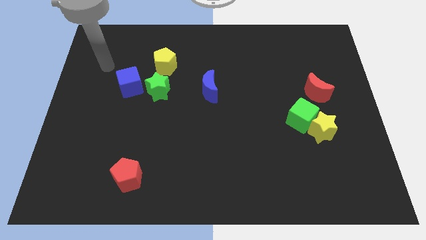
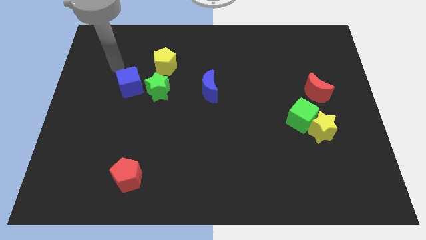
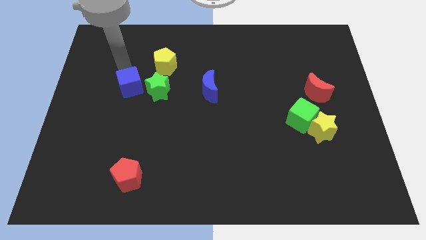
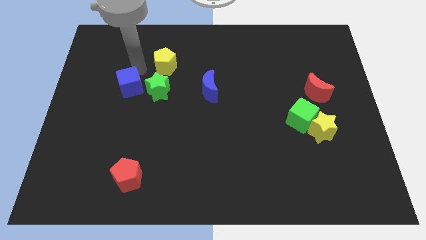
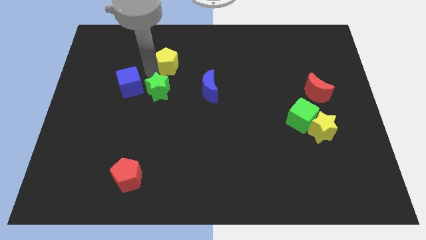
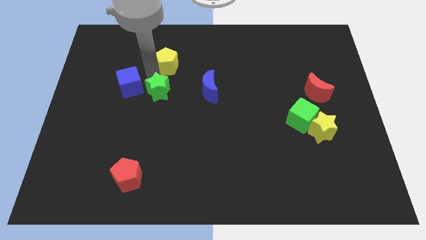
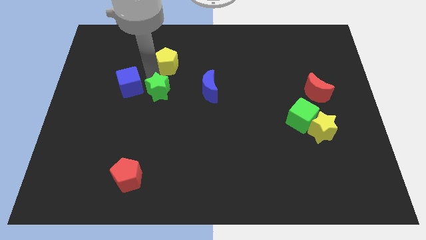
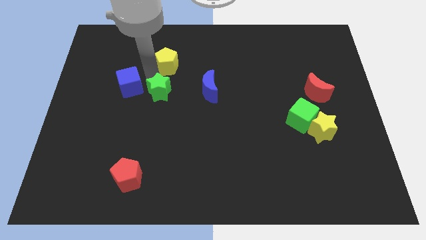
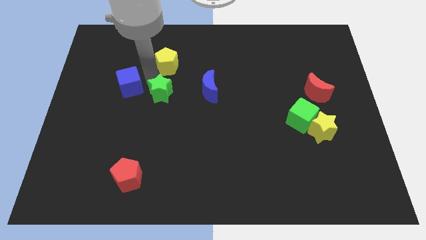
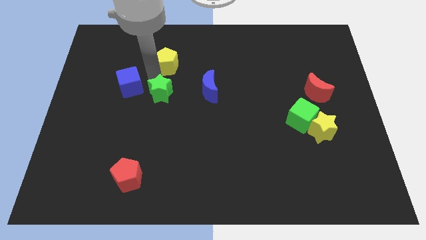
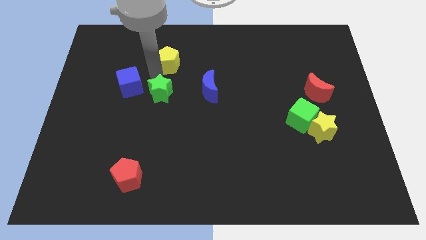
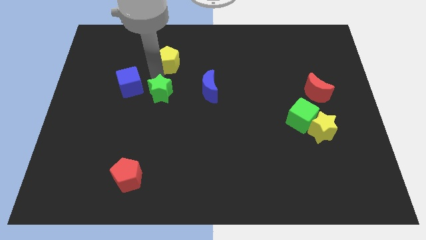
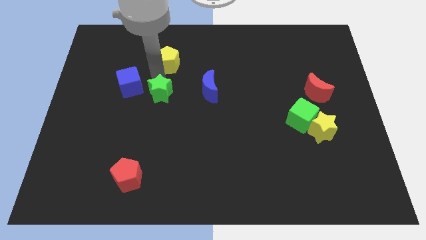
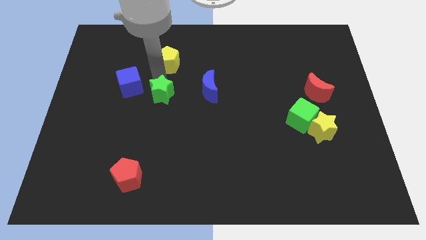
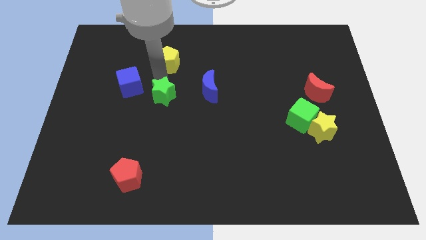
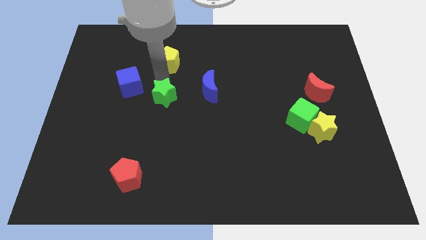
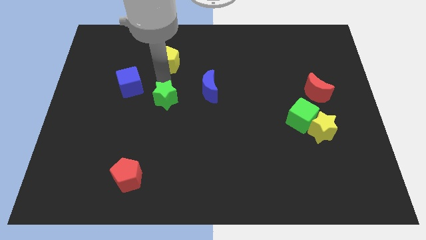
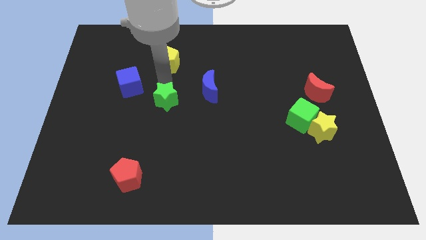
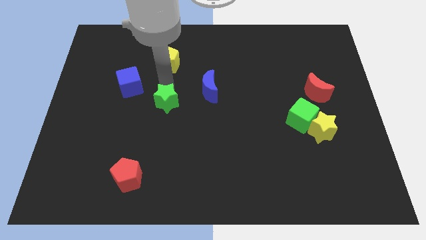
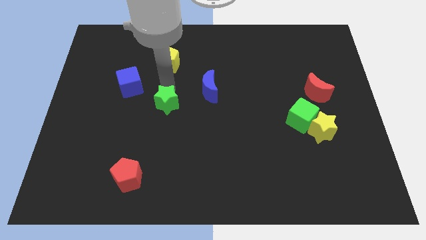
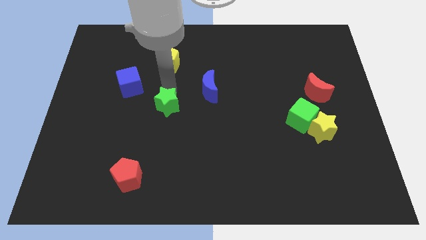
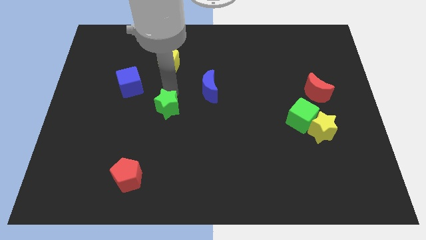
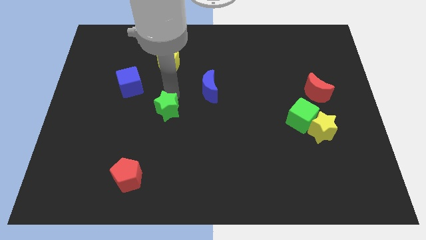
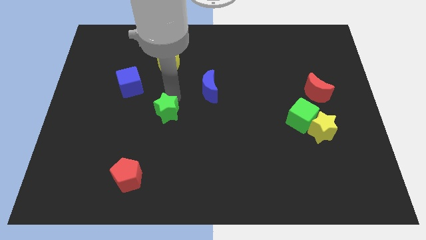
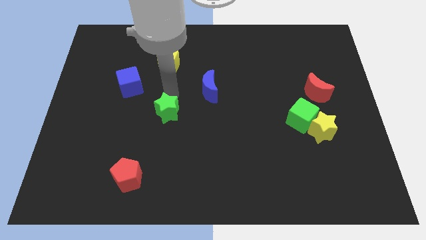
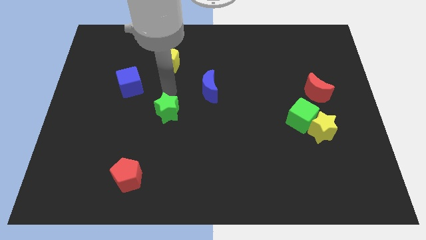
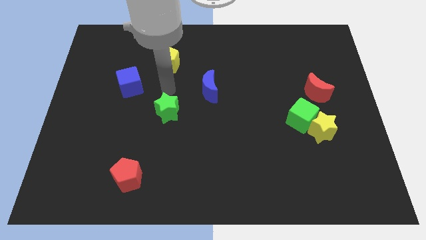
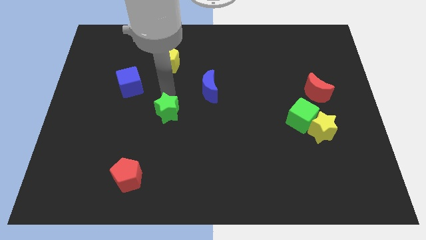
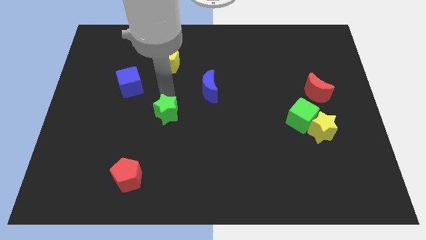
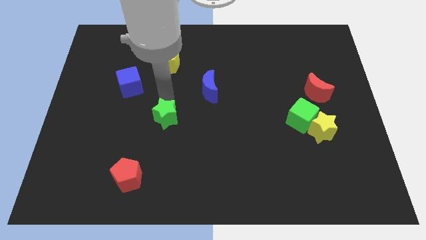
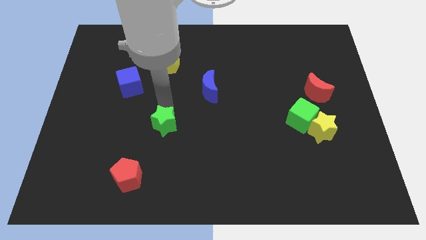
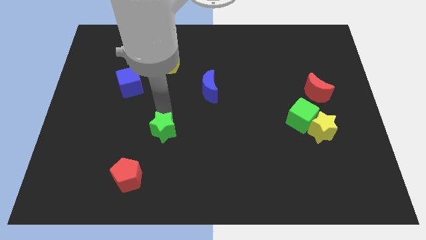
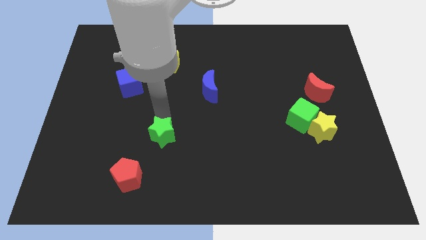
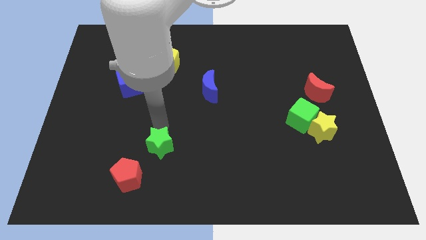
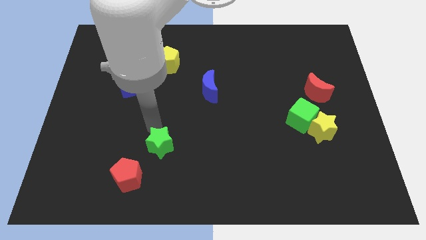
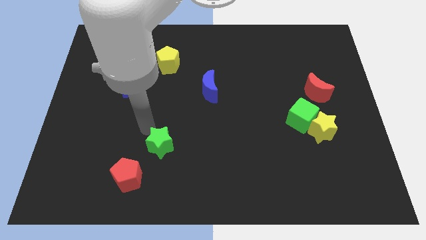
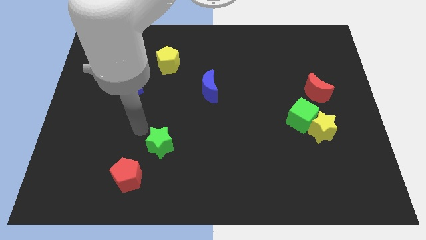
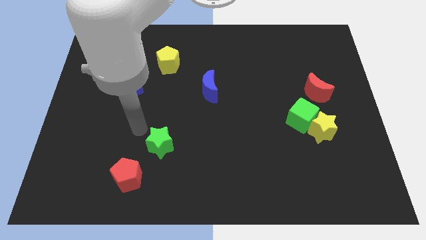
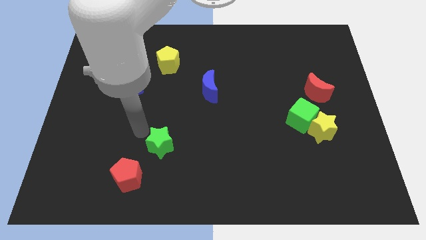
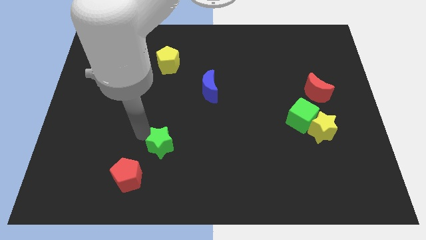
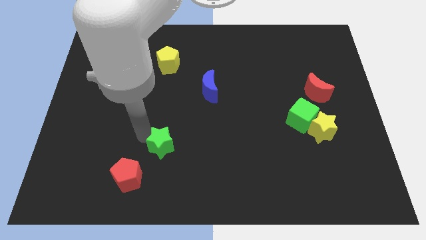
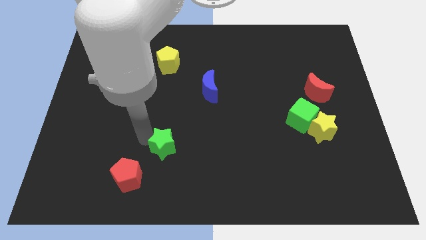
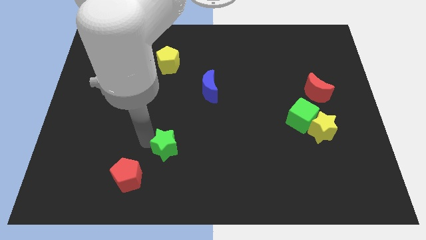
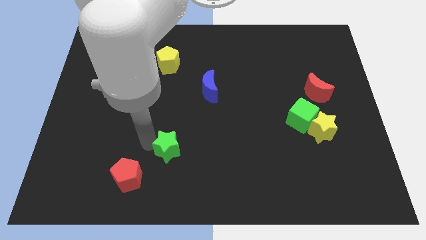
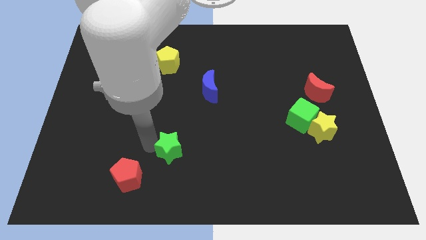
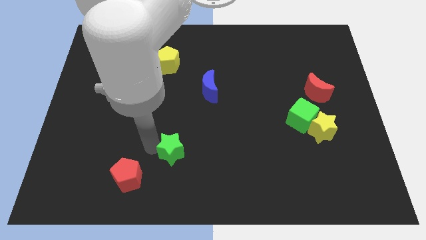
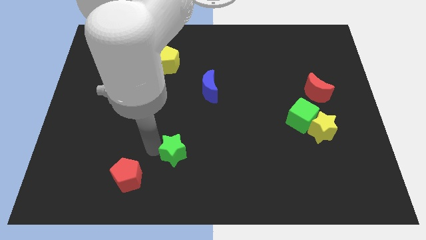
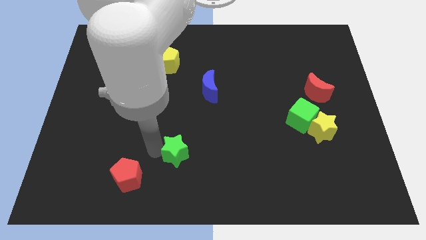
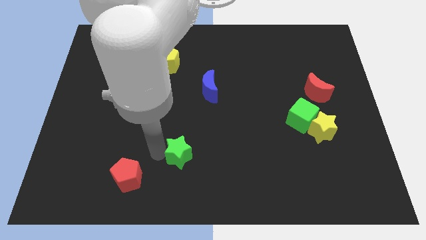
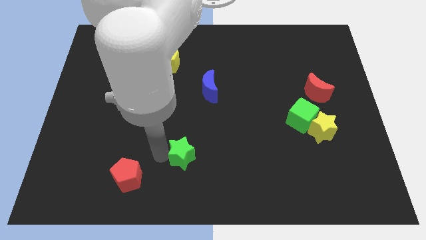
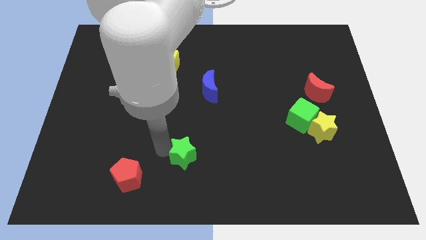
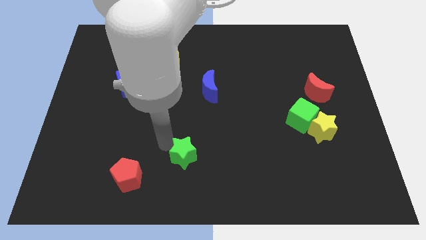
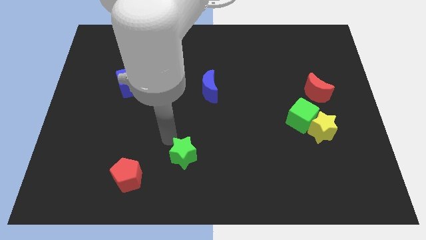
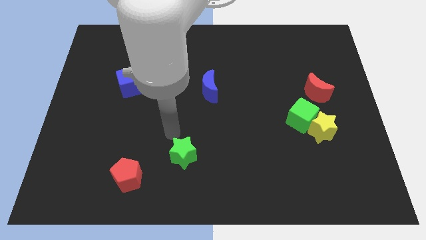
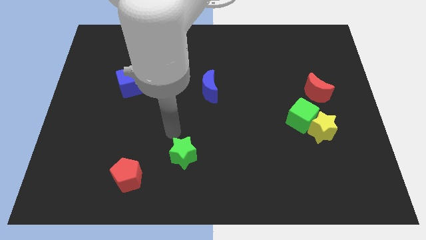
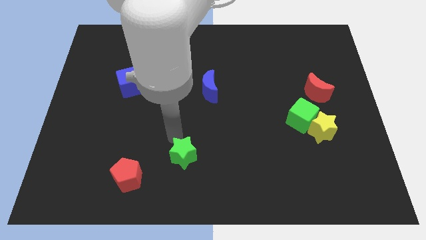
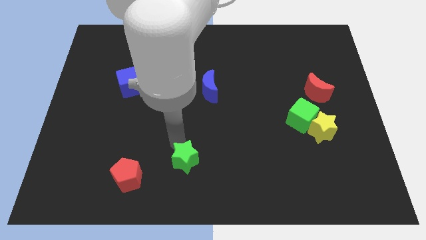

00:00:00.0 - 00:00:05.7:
move the green star to the bottom side

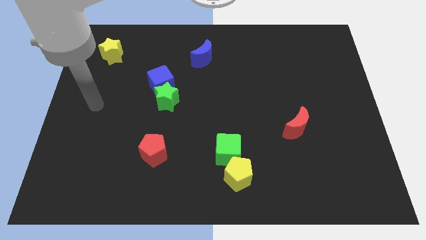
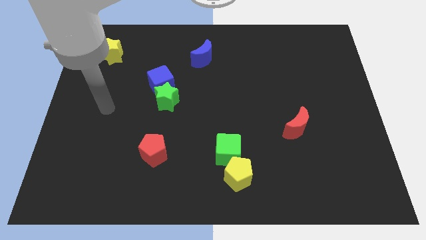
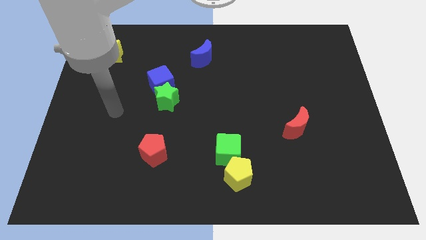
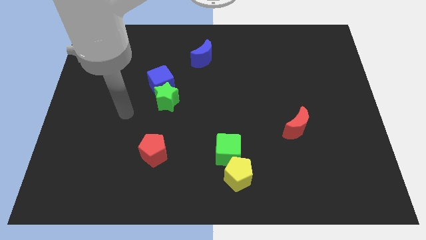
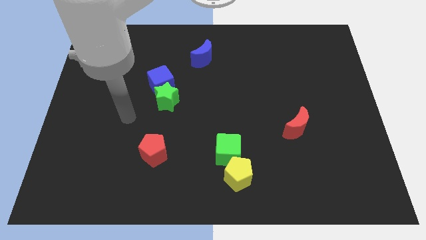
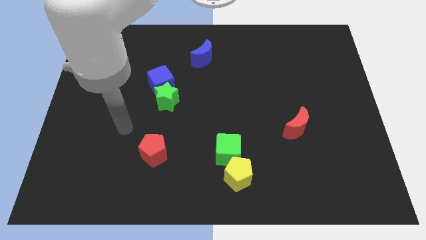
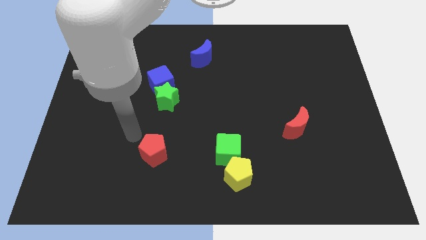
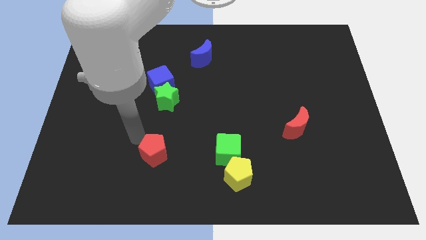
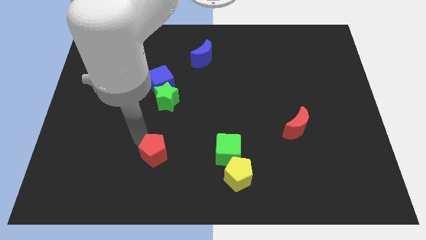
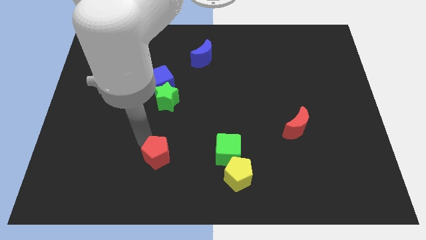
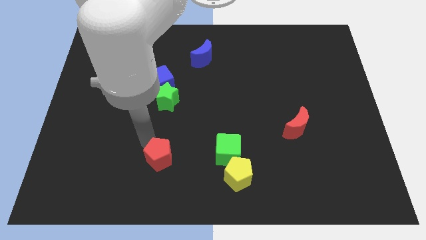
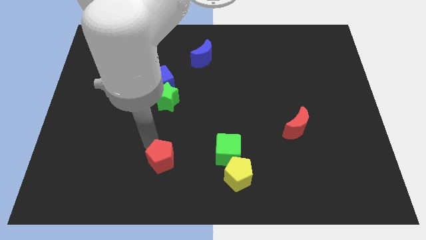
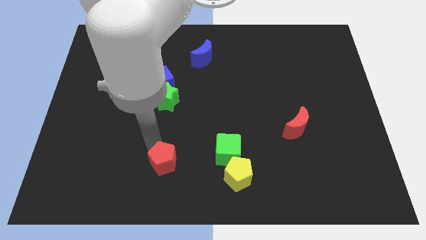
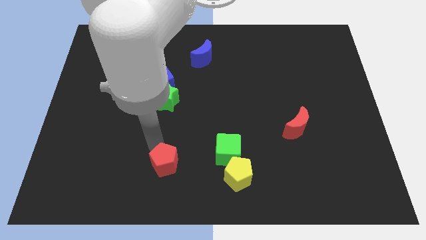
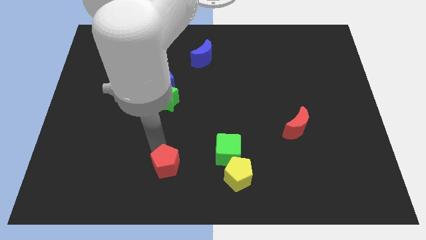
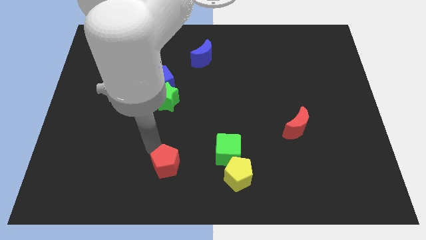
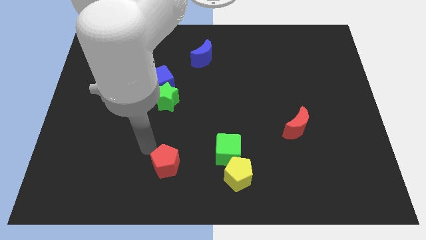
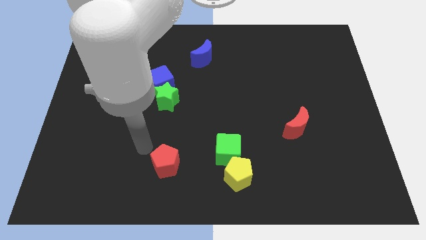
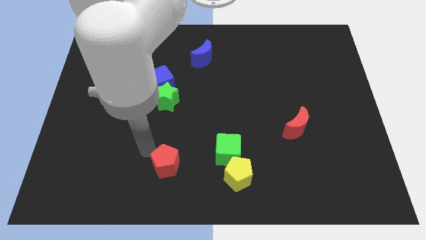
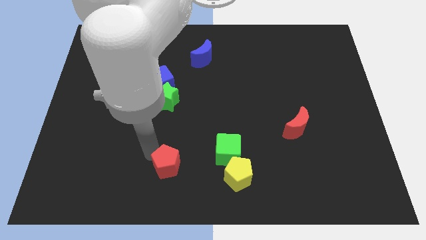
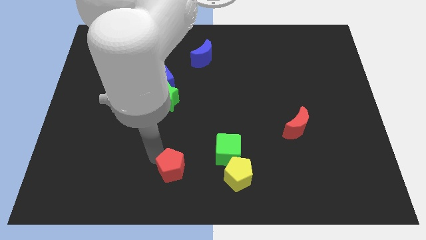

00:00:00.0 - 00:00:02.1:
move the red pentagon to the bottom side

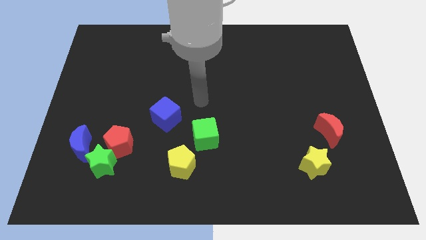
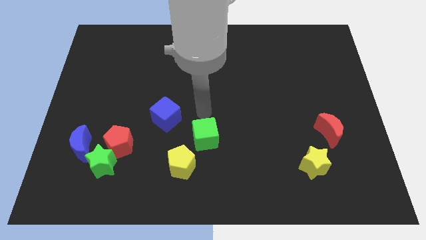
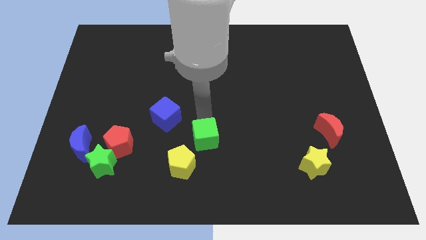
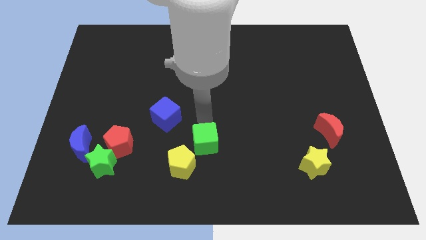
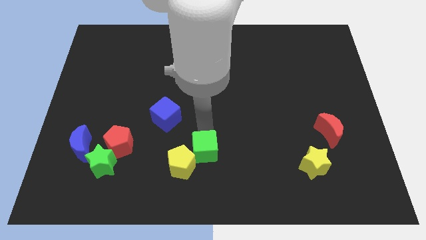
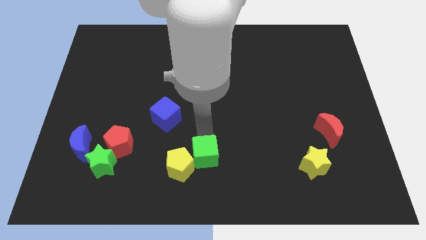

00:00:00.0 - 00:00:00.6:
move the green cube to the bottom side
